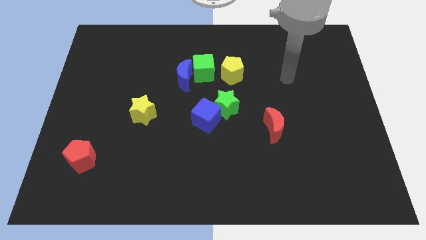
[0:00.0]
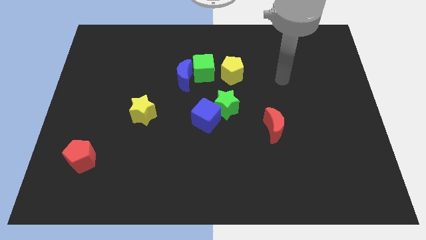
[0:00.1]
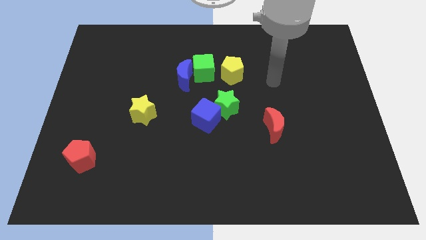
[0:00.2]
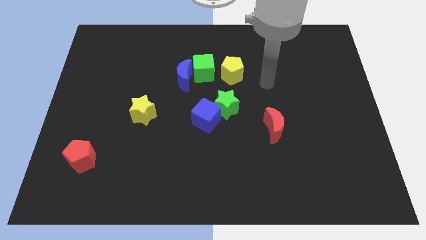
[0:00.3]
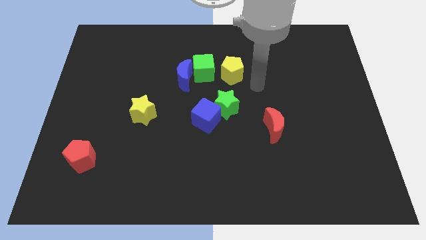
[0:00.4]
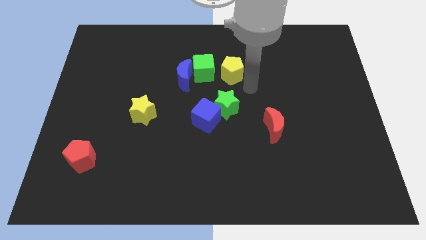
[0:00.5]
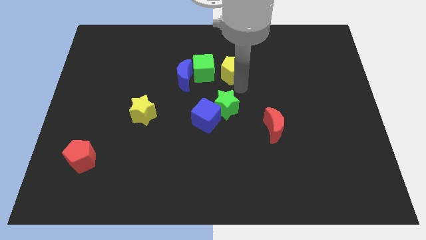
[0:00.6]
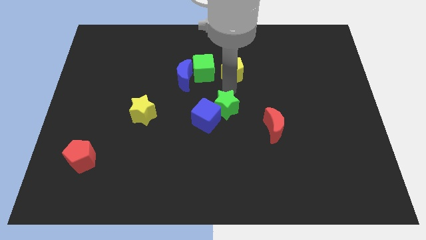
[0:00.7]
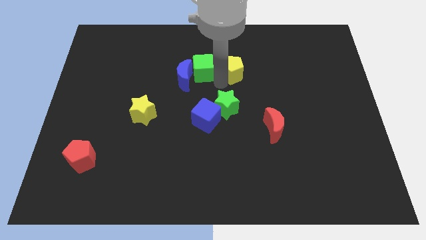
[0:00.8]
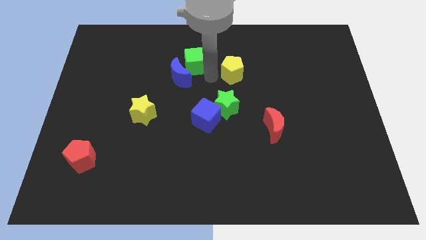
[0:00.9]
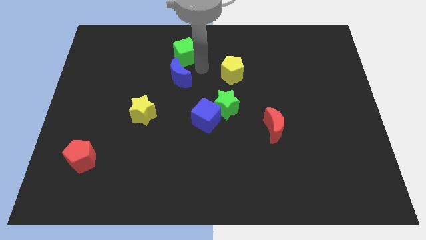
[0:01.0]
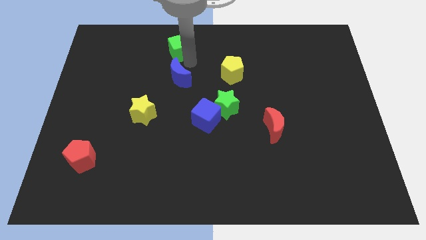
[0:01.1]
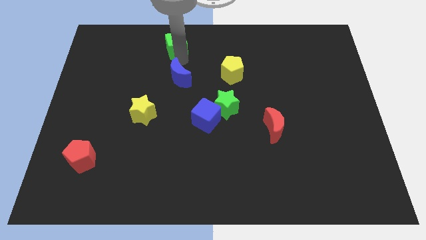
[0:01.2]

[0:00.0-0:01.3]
move the blue moon away from the green cube

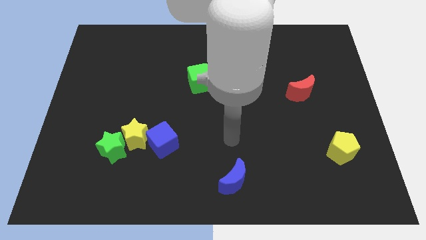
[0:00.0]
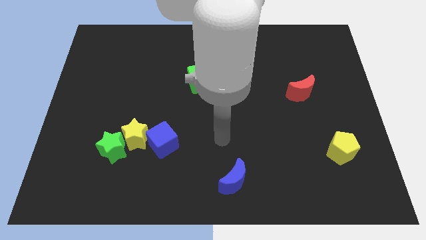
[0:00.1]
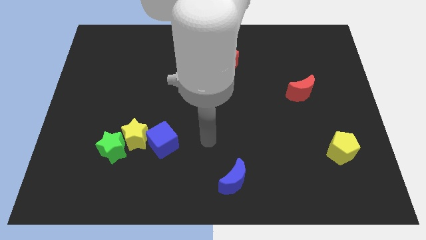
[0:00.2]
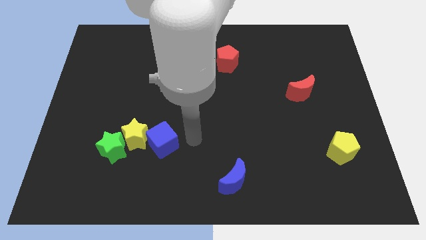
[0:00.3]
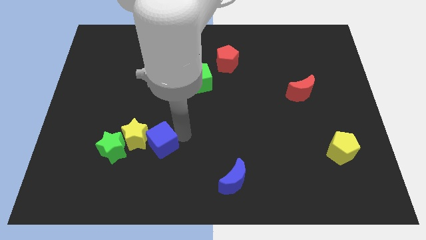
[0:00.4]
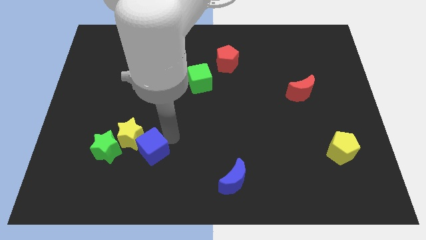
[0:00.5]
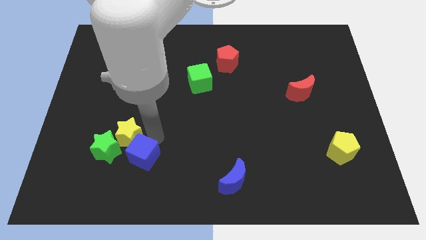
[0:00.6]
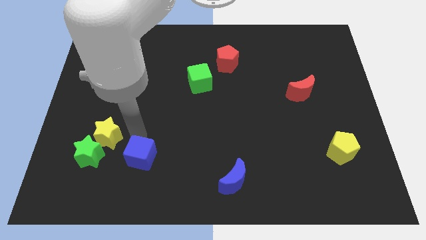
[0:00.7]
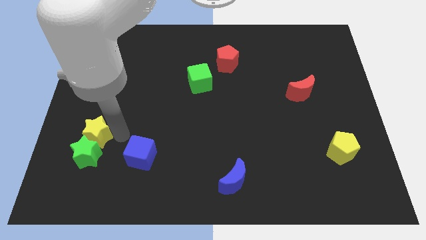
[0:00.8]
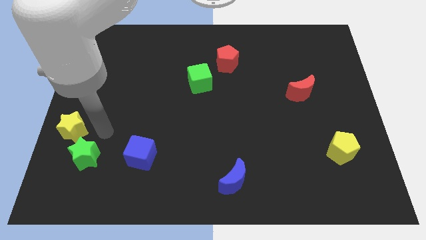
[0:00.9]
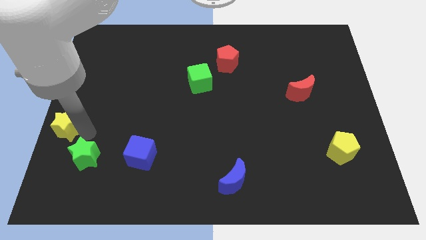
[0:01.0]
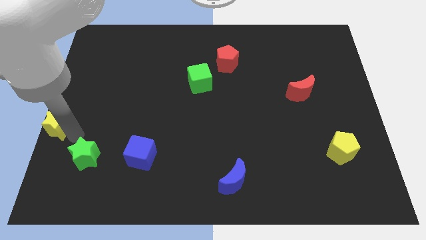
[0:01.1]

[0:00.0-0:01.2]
move the green star away from the yellow star

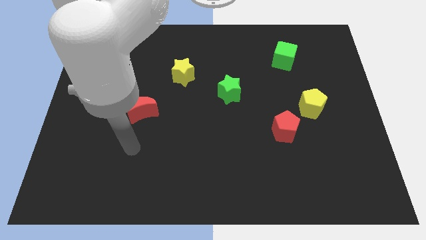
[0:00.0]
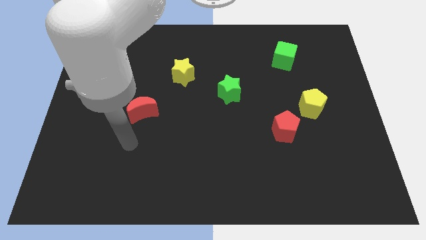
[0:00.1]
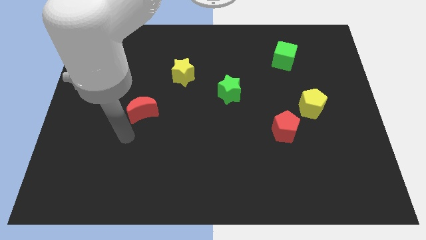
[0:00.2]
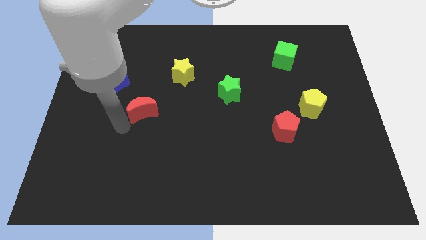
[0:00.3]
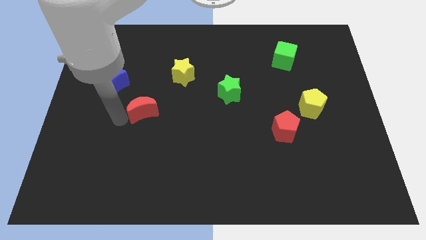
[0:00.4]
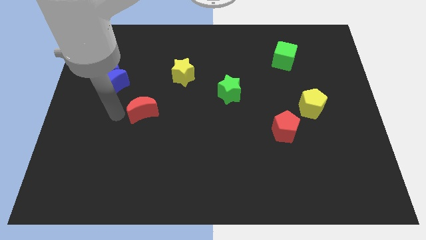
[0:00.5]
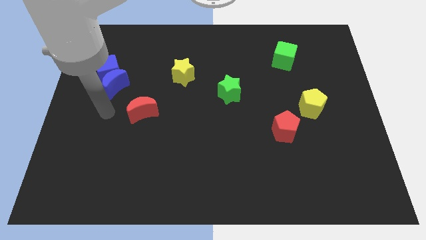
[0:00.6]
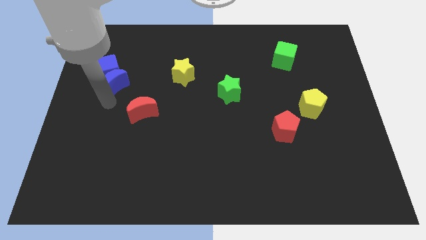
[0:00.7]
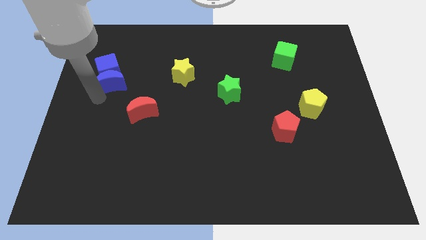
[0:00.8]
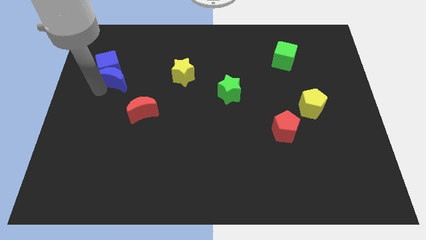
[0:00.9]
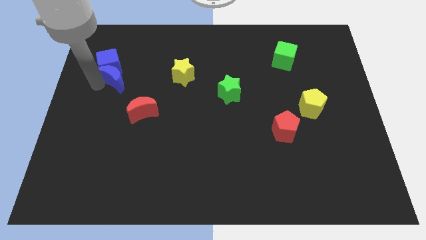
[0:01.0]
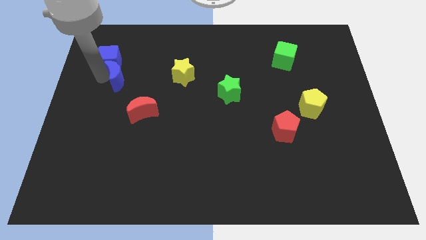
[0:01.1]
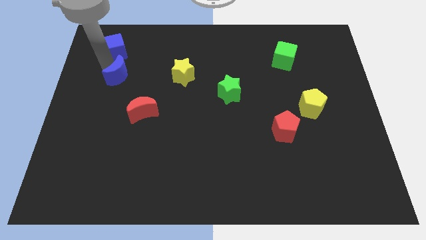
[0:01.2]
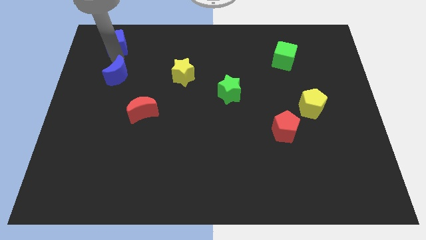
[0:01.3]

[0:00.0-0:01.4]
pull the blue moon apart from the blue cube

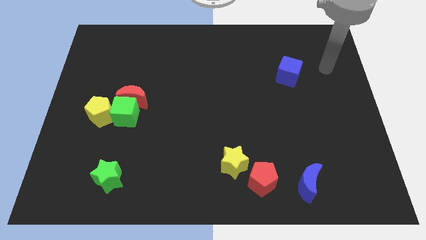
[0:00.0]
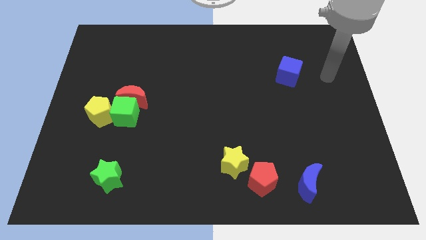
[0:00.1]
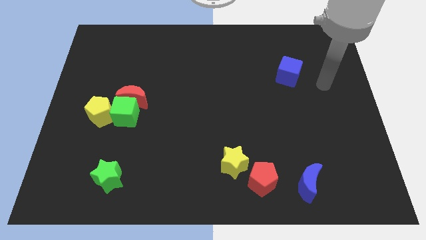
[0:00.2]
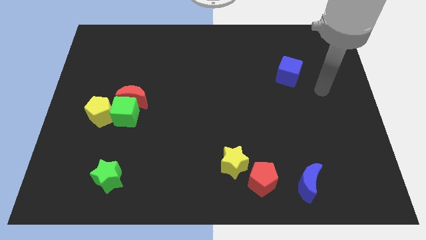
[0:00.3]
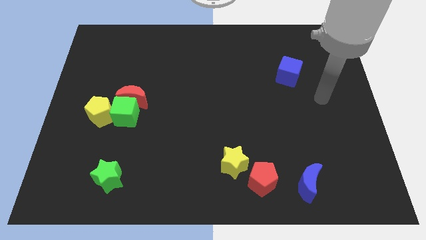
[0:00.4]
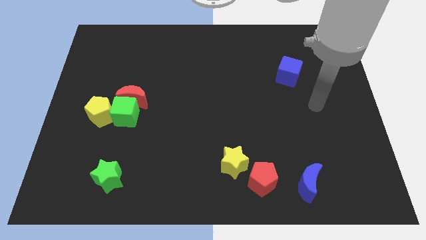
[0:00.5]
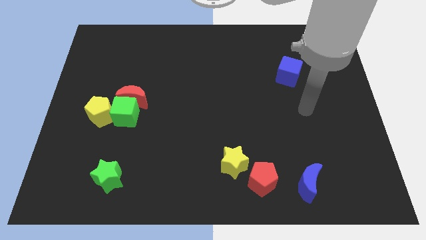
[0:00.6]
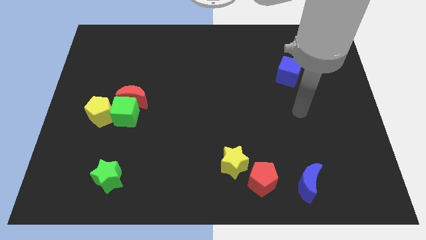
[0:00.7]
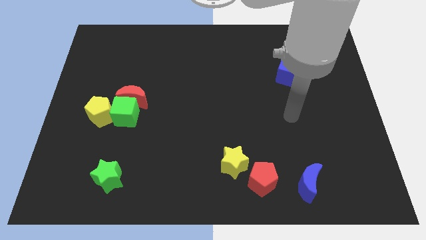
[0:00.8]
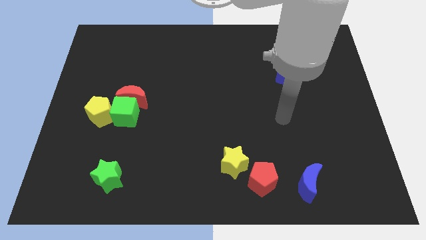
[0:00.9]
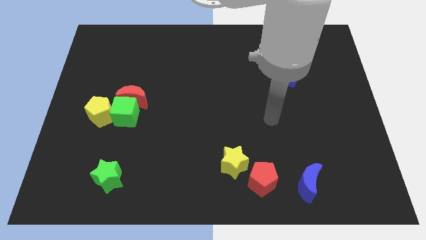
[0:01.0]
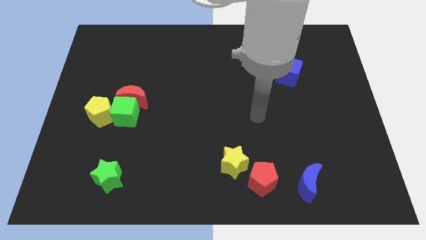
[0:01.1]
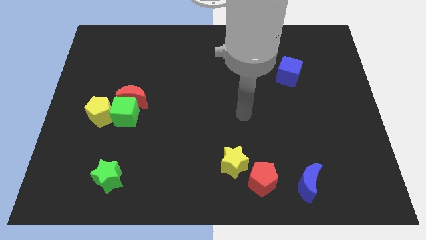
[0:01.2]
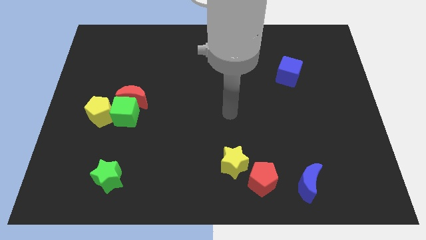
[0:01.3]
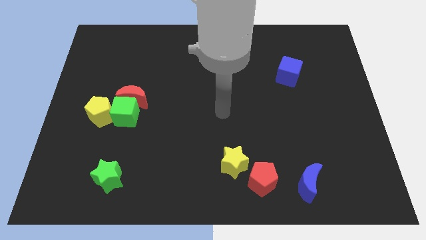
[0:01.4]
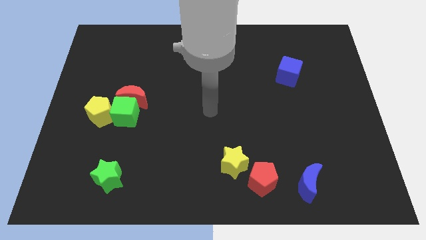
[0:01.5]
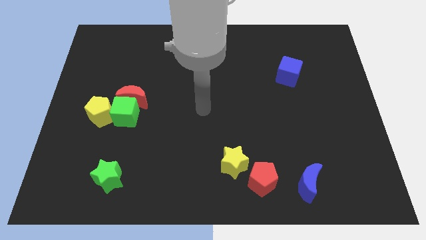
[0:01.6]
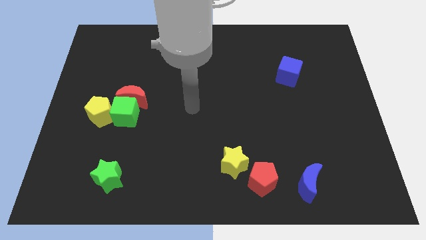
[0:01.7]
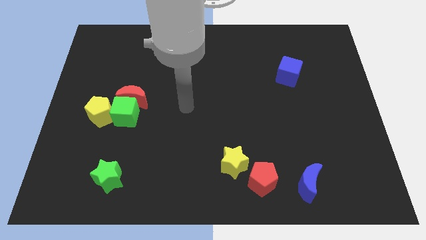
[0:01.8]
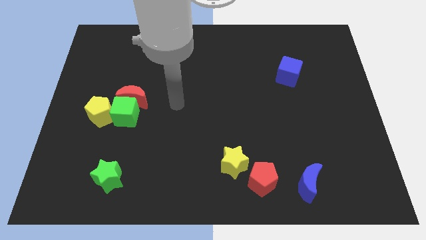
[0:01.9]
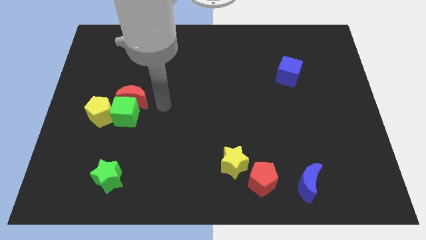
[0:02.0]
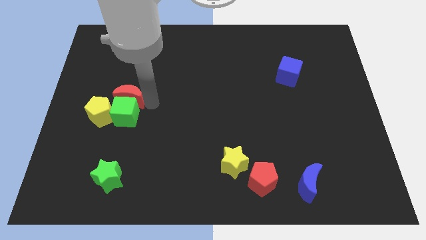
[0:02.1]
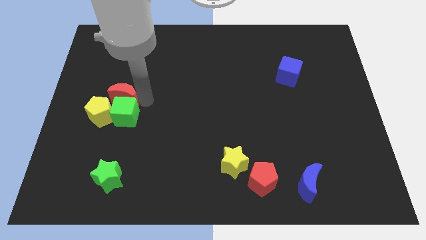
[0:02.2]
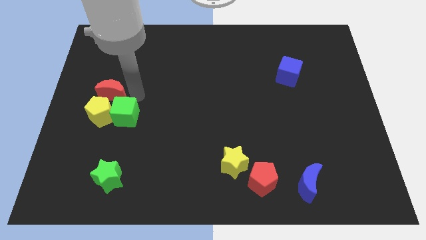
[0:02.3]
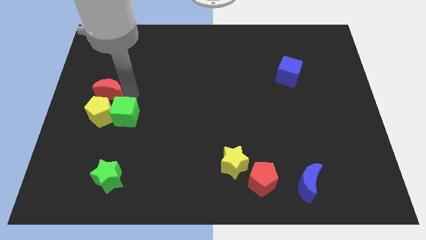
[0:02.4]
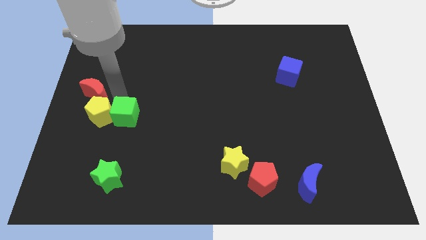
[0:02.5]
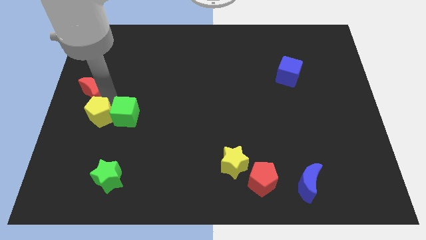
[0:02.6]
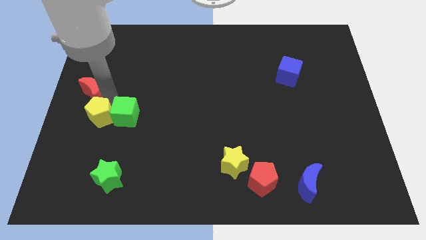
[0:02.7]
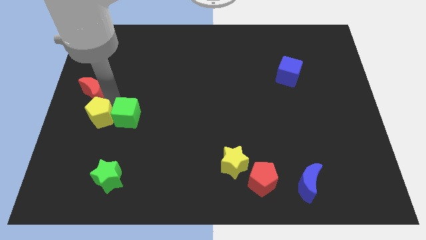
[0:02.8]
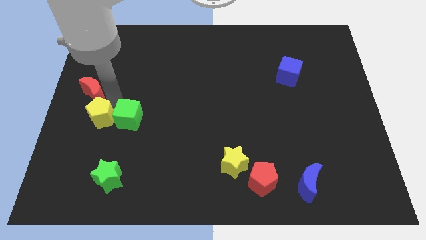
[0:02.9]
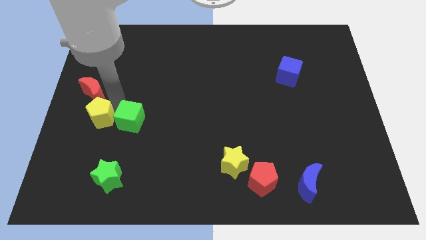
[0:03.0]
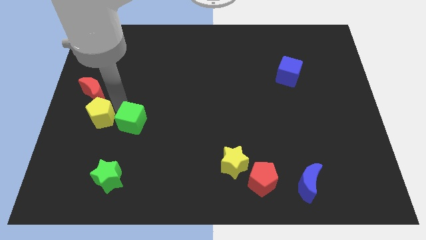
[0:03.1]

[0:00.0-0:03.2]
pull the green cube apart from the red moon and yellow pentagon

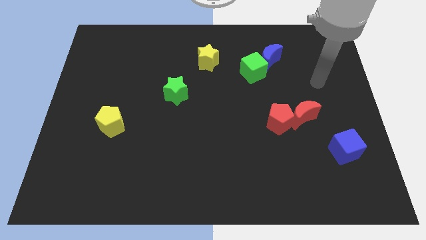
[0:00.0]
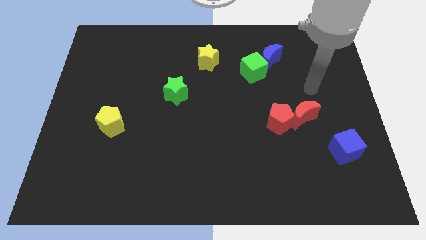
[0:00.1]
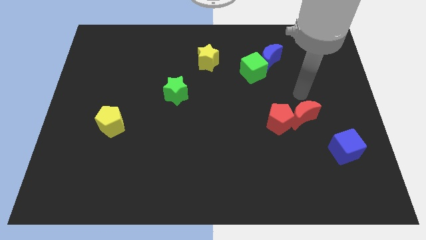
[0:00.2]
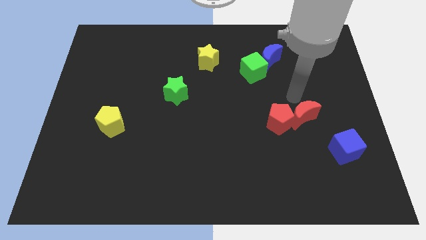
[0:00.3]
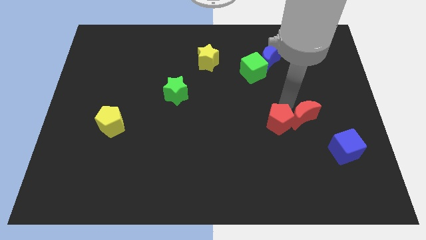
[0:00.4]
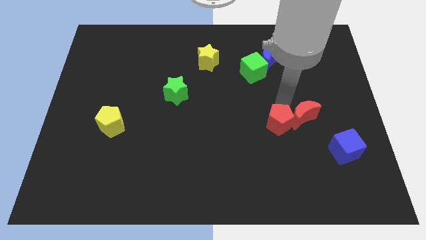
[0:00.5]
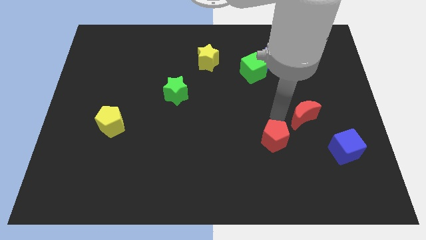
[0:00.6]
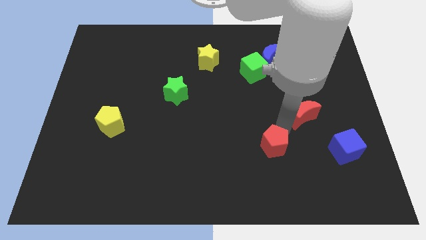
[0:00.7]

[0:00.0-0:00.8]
separate the red moon from the red pentagon

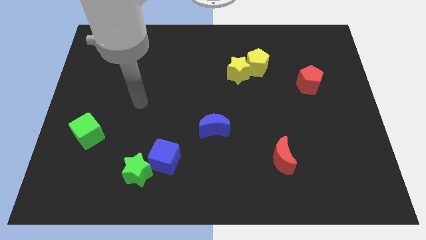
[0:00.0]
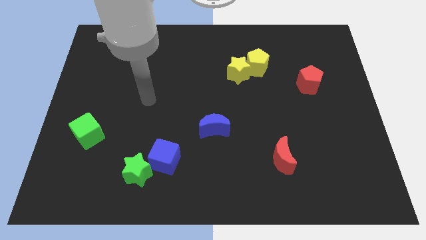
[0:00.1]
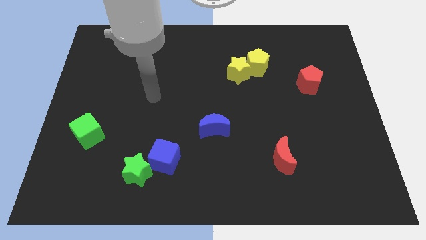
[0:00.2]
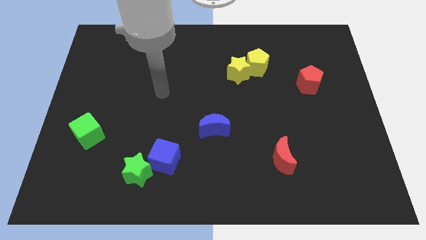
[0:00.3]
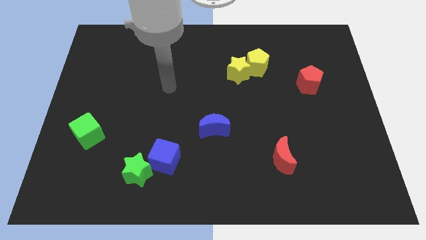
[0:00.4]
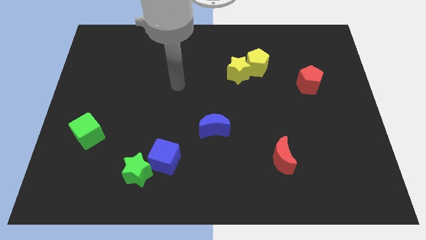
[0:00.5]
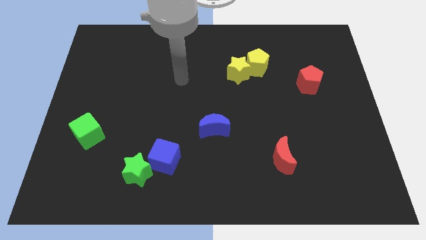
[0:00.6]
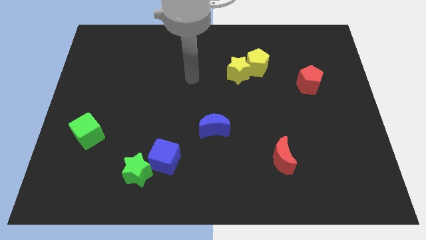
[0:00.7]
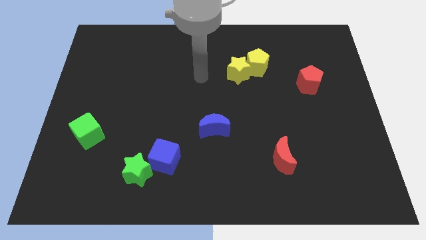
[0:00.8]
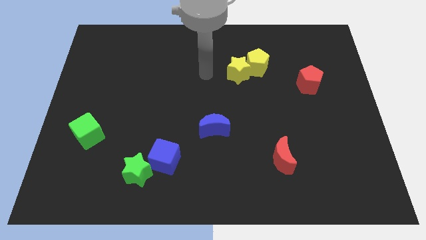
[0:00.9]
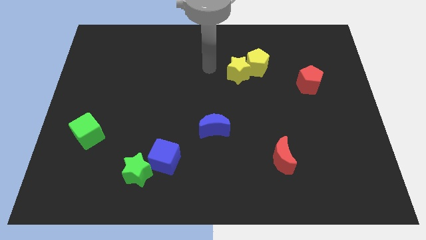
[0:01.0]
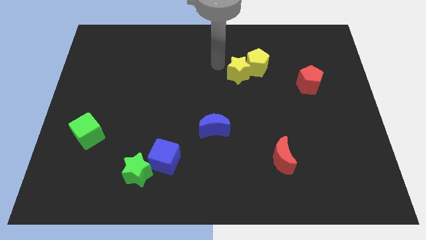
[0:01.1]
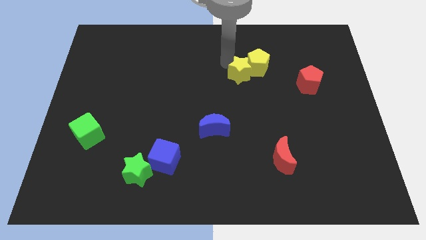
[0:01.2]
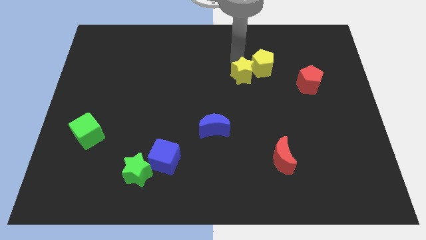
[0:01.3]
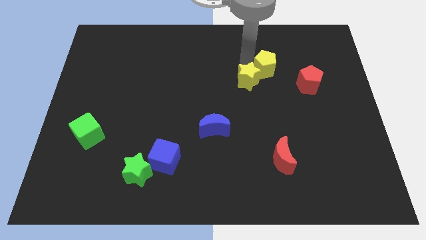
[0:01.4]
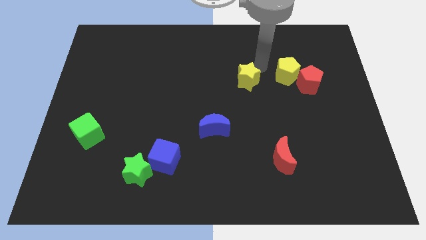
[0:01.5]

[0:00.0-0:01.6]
move the yellow star away from the yellow pentagon
